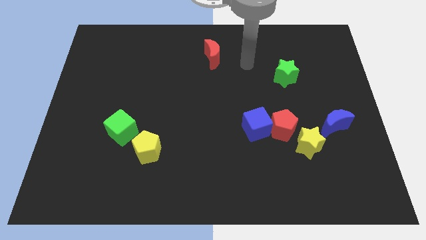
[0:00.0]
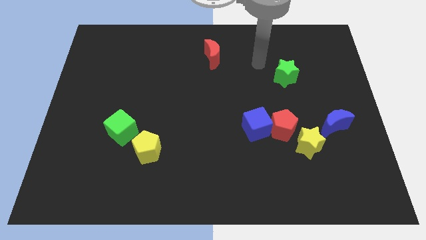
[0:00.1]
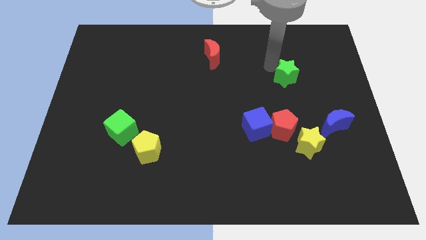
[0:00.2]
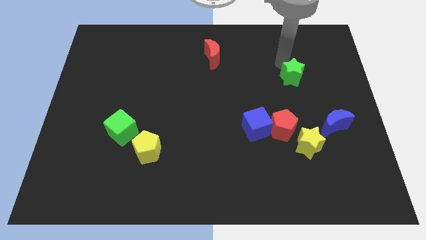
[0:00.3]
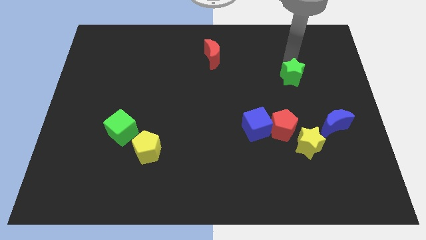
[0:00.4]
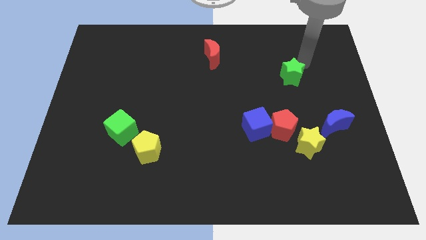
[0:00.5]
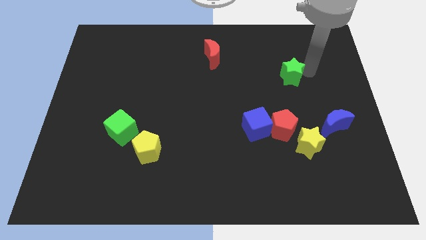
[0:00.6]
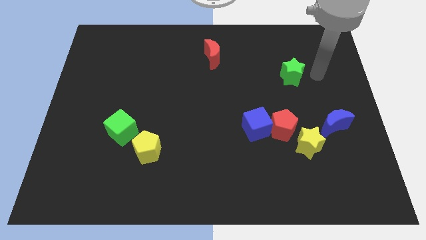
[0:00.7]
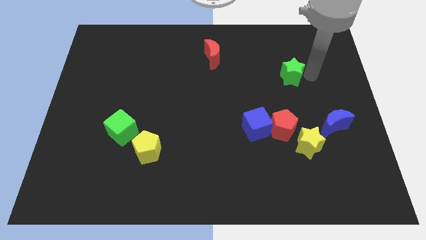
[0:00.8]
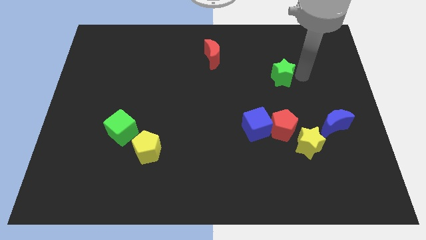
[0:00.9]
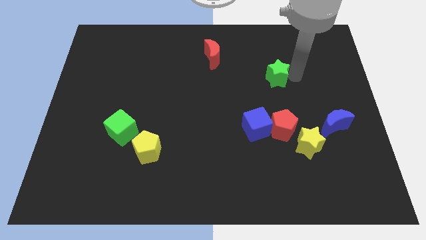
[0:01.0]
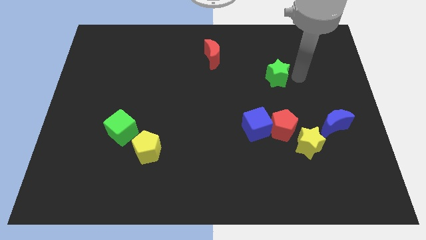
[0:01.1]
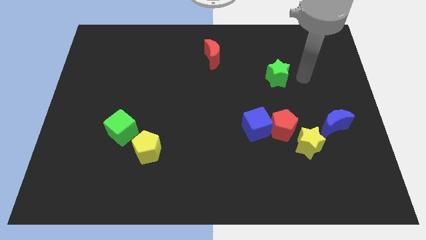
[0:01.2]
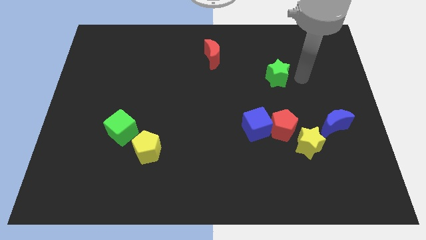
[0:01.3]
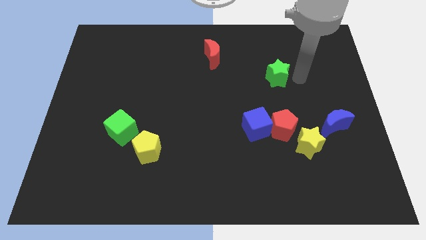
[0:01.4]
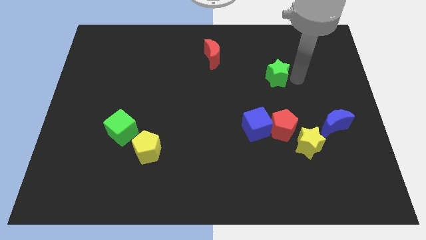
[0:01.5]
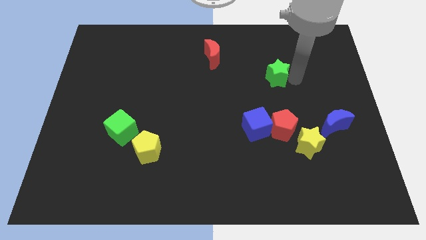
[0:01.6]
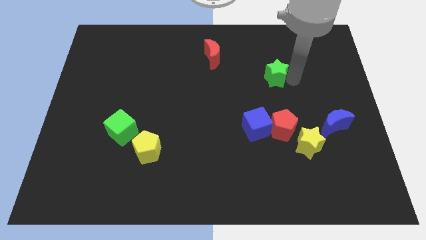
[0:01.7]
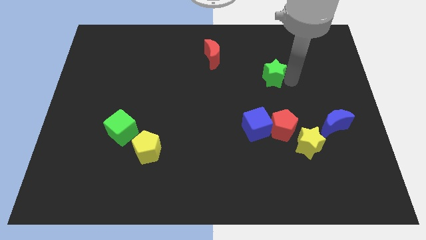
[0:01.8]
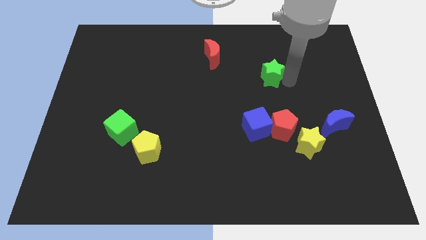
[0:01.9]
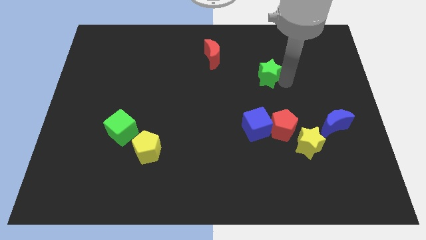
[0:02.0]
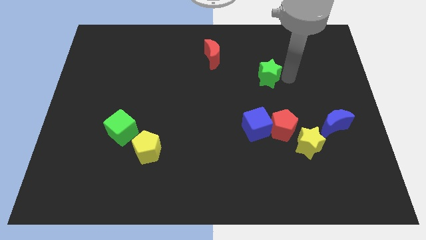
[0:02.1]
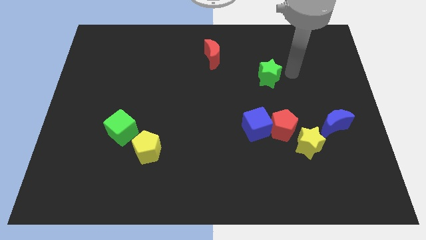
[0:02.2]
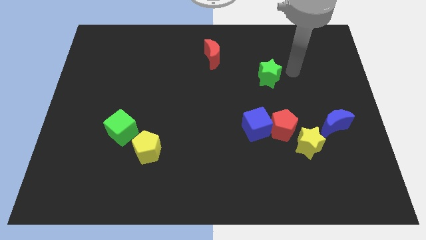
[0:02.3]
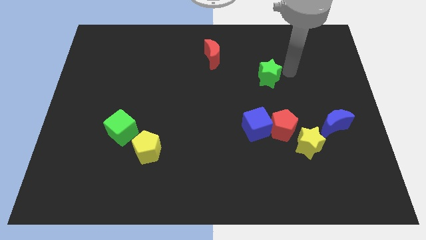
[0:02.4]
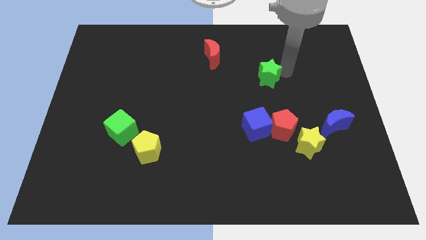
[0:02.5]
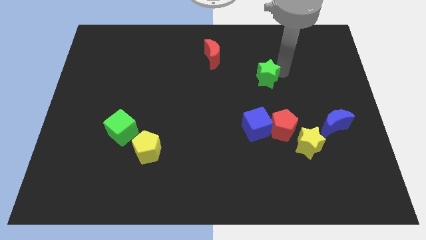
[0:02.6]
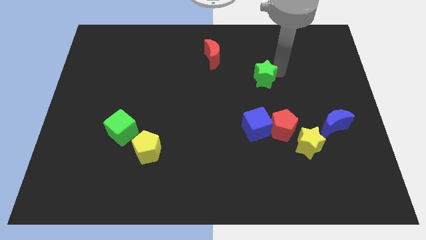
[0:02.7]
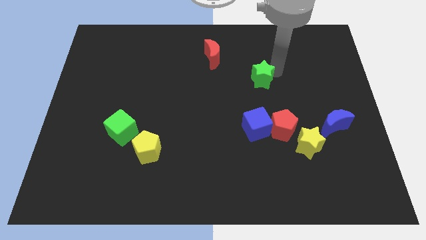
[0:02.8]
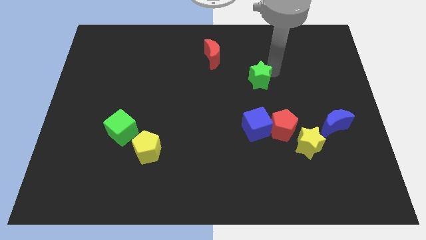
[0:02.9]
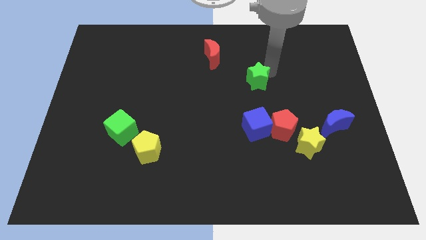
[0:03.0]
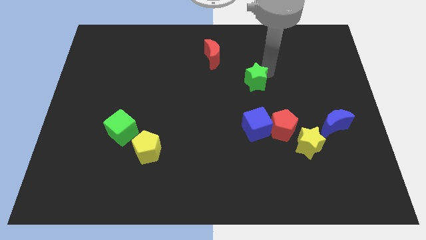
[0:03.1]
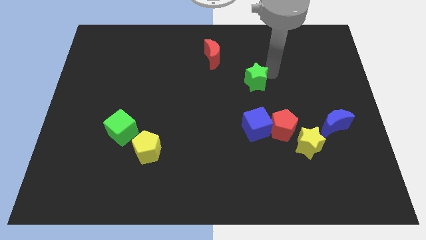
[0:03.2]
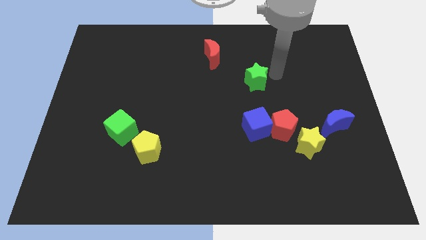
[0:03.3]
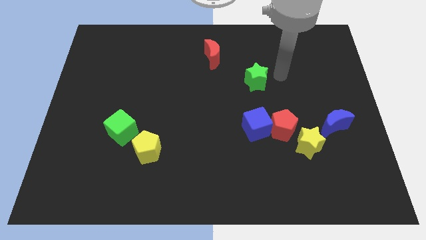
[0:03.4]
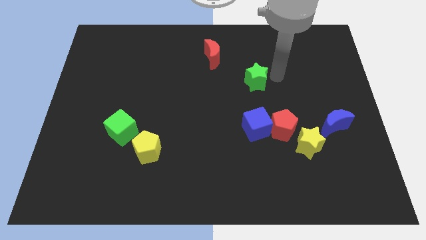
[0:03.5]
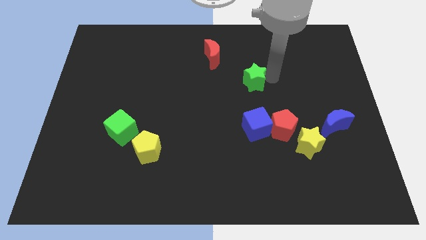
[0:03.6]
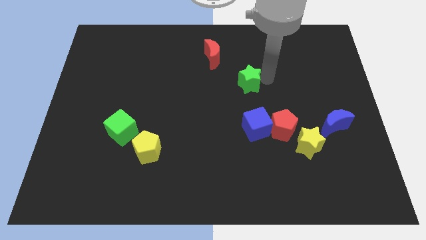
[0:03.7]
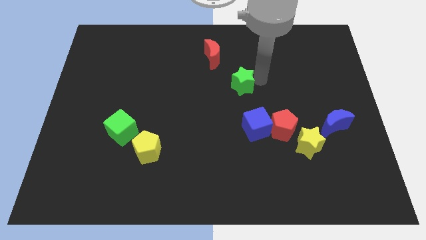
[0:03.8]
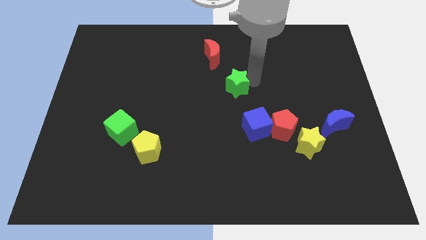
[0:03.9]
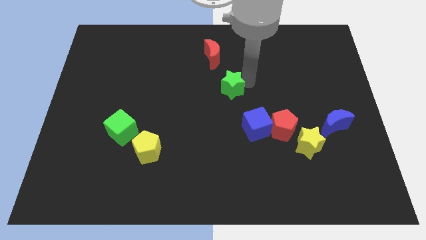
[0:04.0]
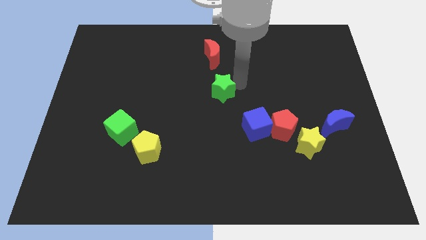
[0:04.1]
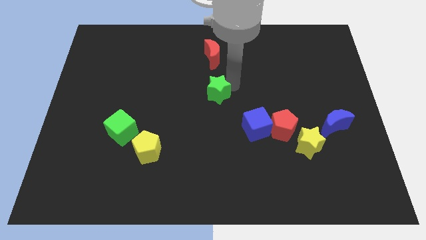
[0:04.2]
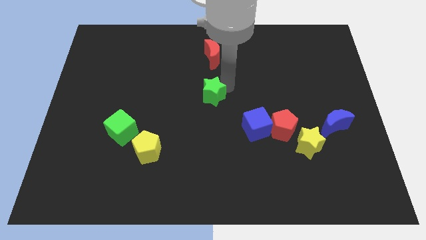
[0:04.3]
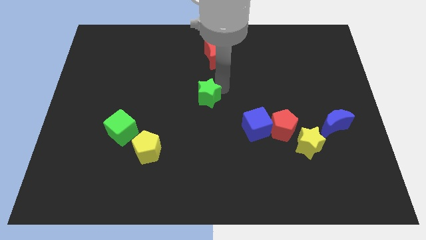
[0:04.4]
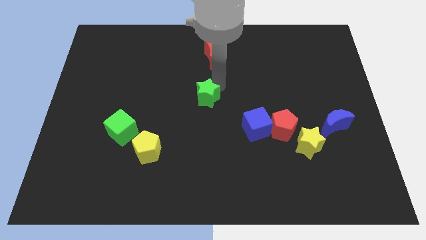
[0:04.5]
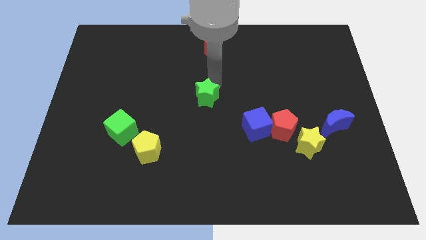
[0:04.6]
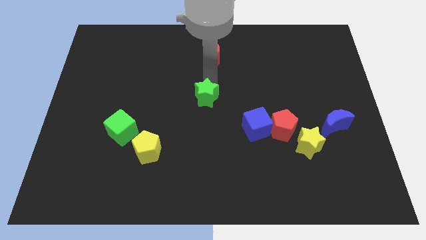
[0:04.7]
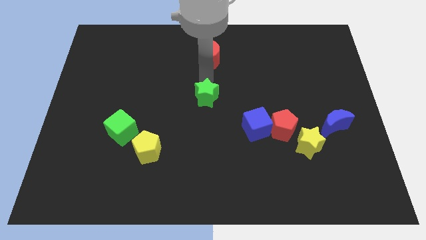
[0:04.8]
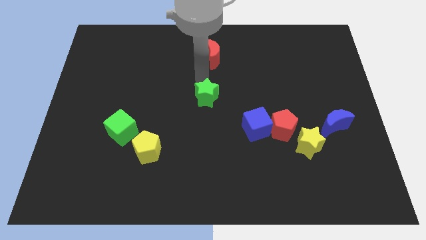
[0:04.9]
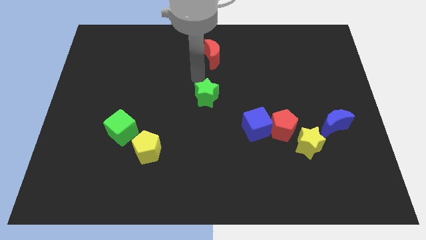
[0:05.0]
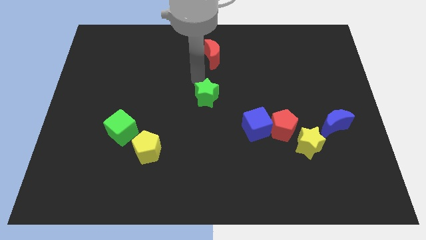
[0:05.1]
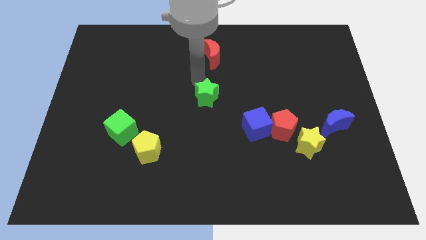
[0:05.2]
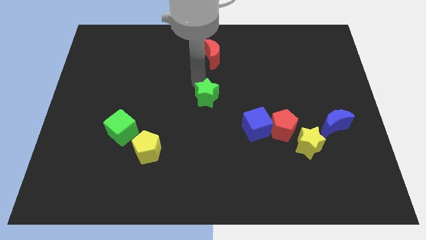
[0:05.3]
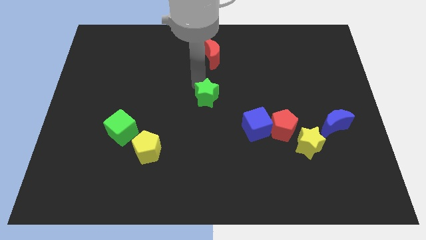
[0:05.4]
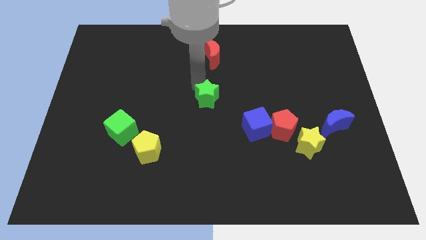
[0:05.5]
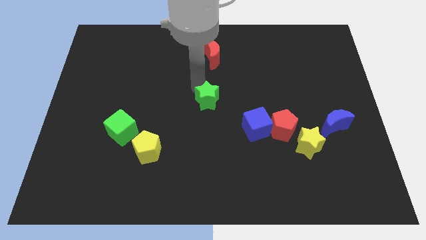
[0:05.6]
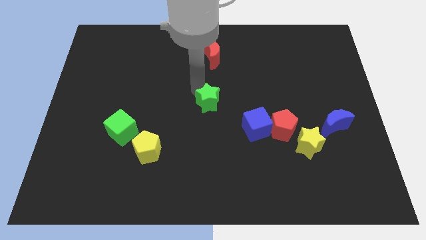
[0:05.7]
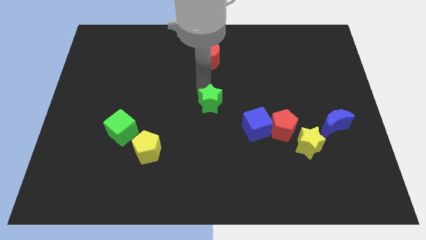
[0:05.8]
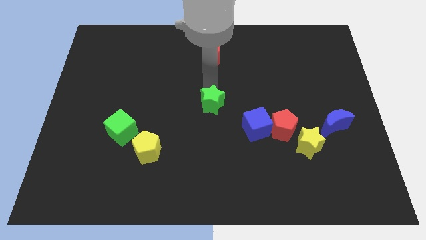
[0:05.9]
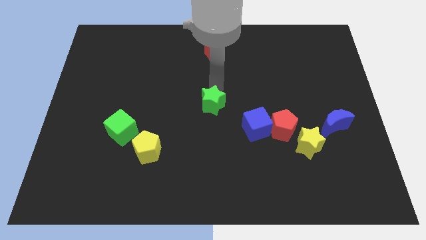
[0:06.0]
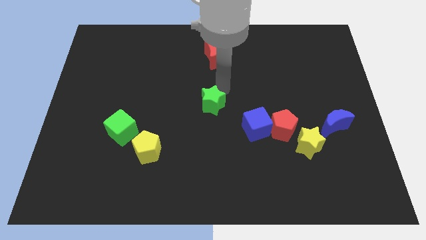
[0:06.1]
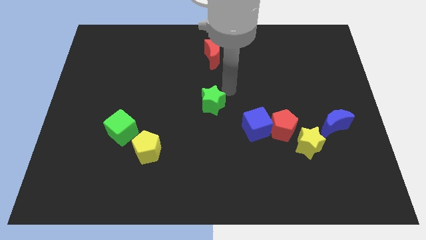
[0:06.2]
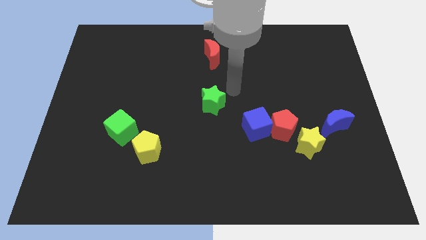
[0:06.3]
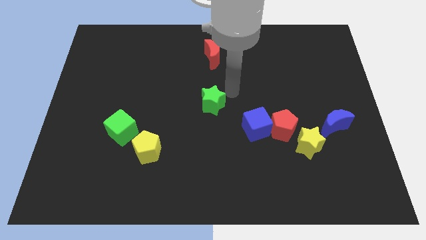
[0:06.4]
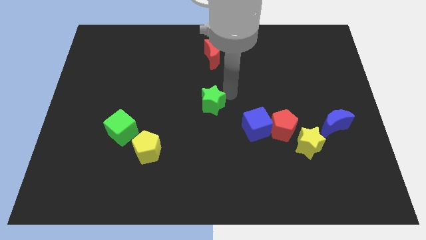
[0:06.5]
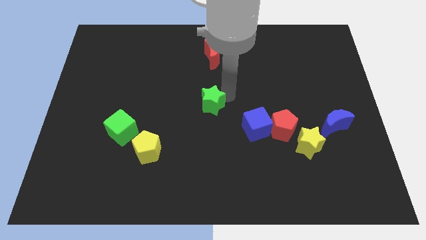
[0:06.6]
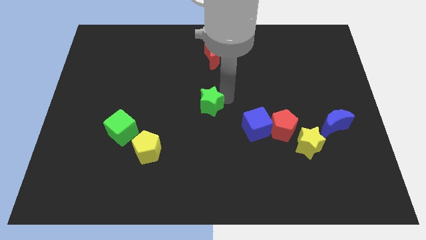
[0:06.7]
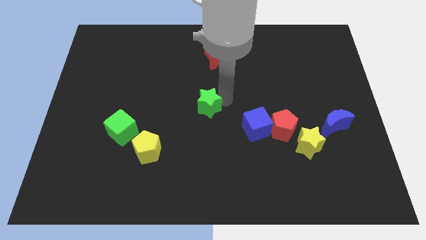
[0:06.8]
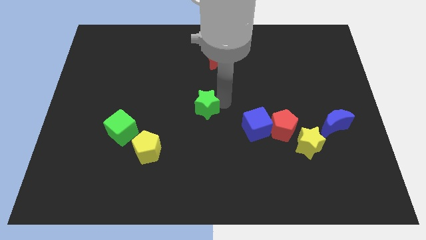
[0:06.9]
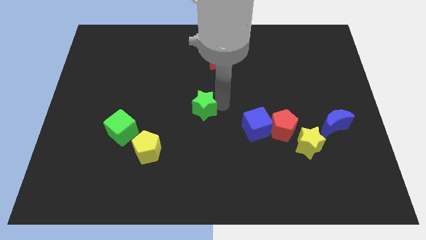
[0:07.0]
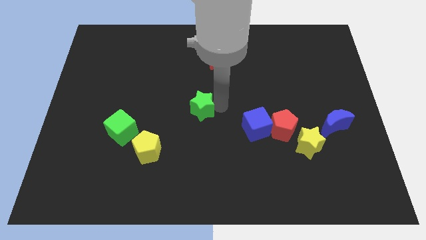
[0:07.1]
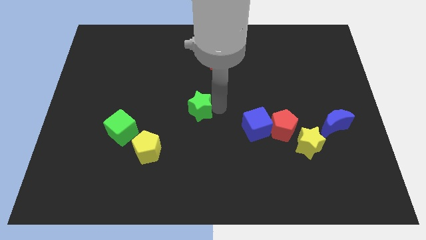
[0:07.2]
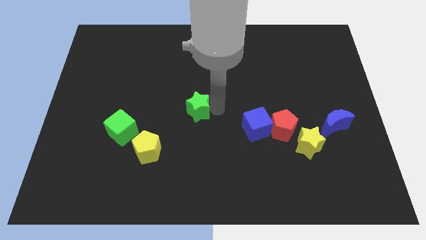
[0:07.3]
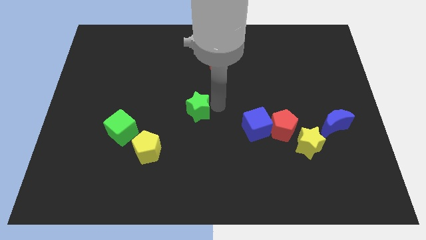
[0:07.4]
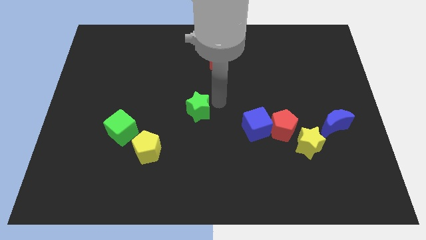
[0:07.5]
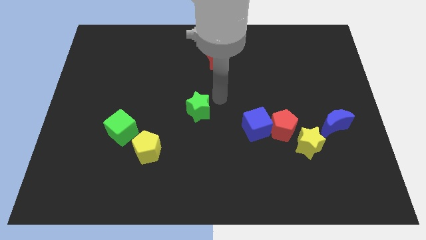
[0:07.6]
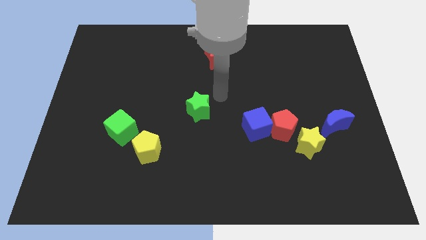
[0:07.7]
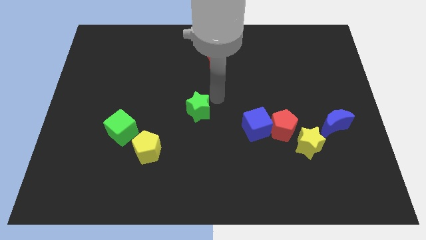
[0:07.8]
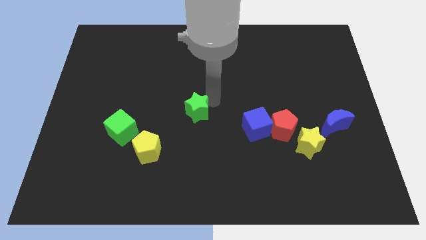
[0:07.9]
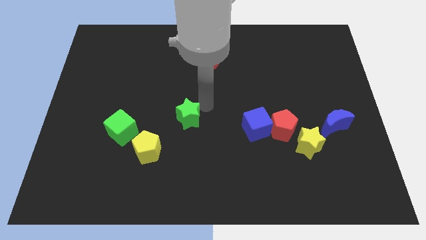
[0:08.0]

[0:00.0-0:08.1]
move the green star to the top right side of the yellow pentagon
